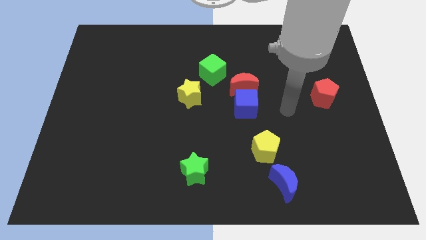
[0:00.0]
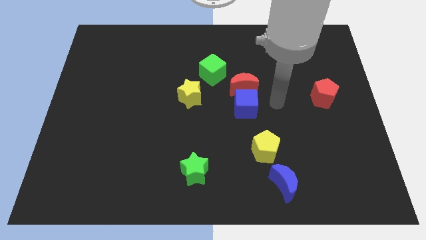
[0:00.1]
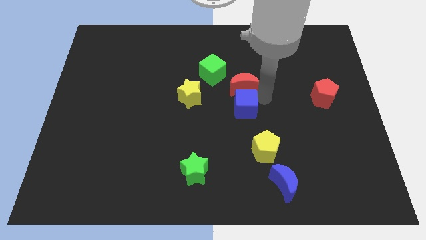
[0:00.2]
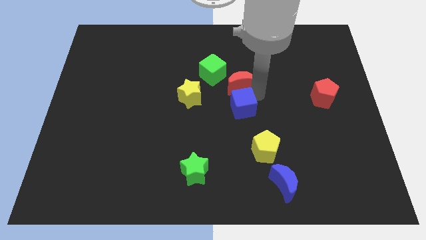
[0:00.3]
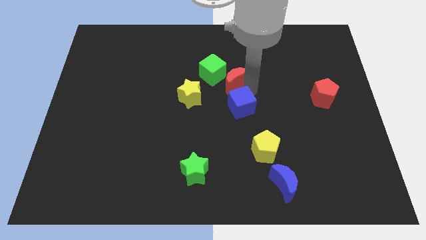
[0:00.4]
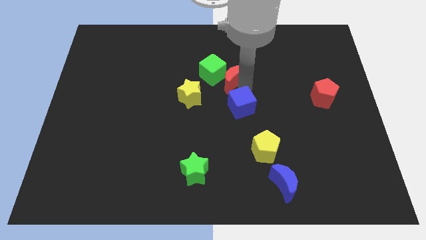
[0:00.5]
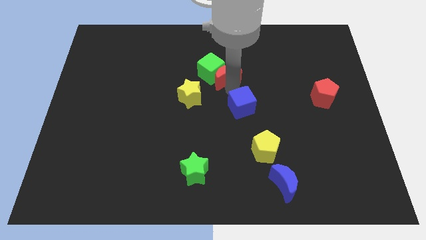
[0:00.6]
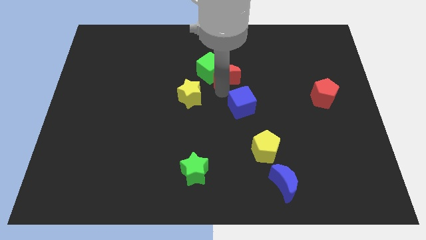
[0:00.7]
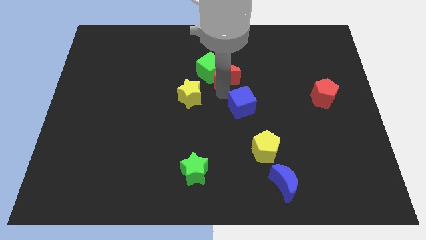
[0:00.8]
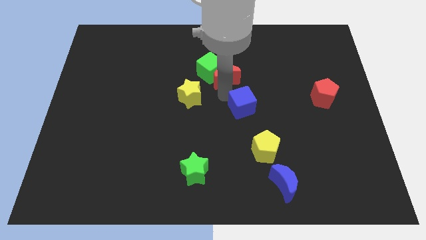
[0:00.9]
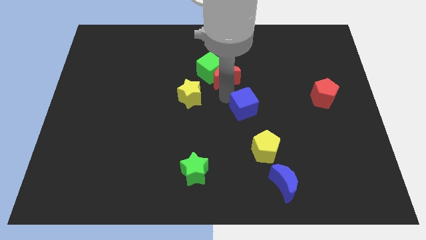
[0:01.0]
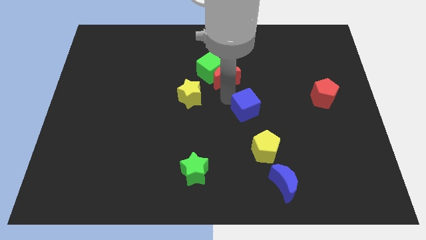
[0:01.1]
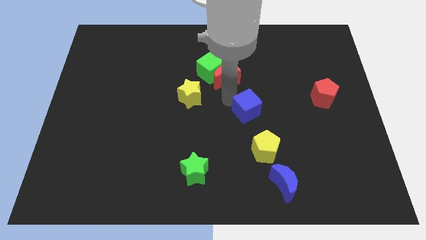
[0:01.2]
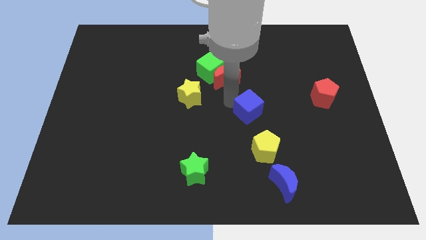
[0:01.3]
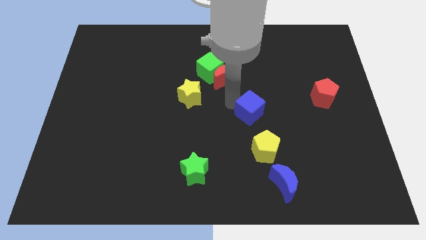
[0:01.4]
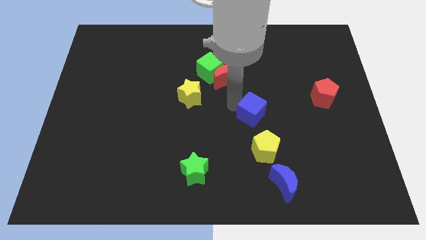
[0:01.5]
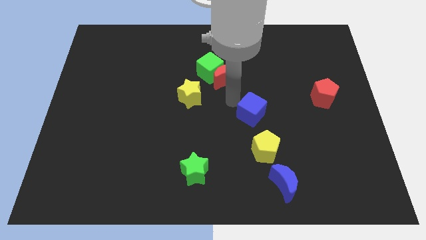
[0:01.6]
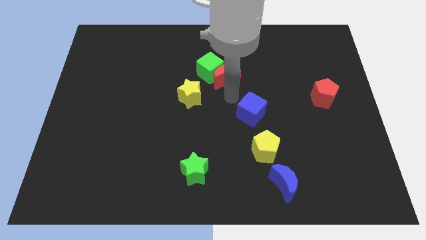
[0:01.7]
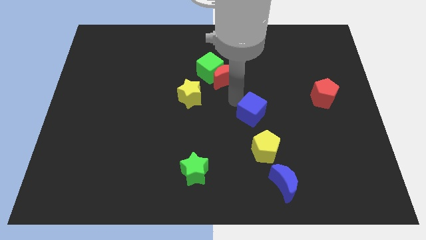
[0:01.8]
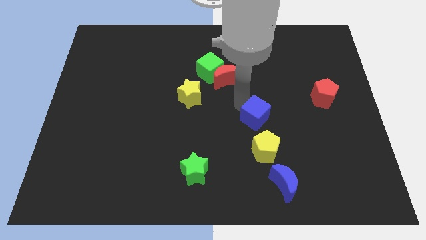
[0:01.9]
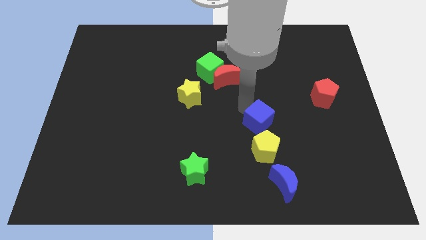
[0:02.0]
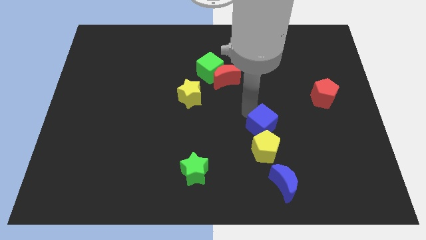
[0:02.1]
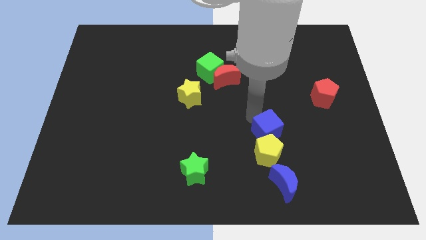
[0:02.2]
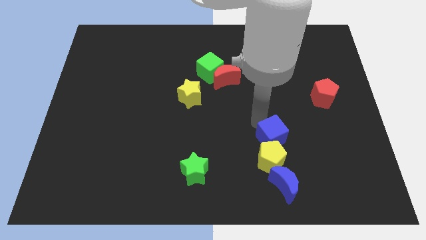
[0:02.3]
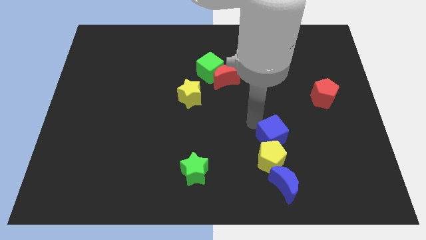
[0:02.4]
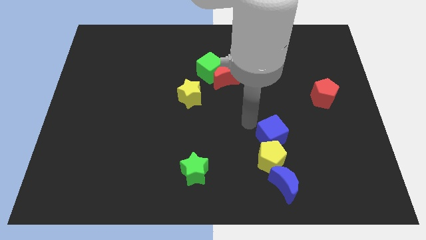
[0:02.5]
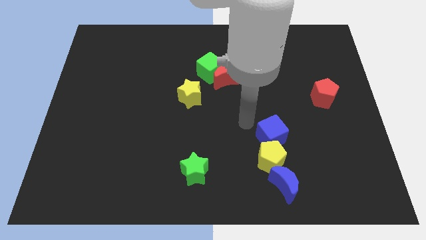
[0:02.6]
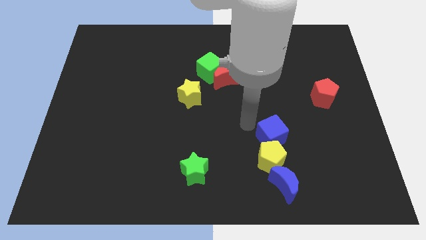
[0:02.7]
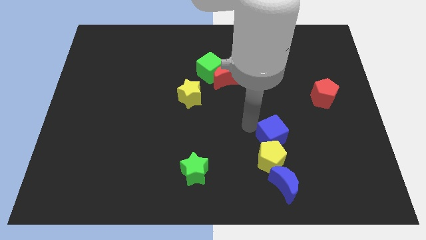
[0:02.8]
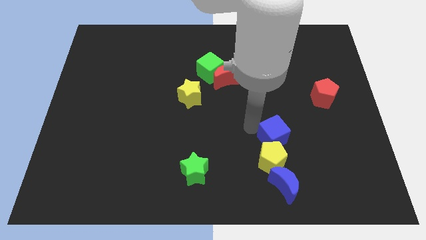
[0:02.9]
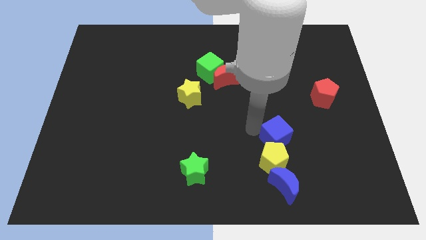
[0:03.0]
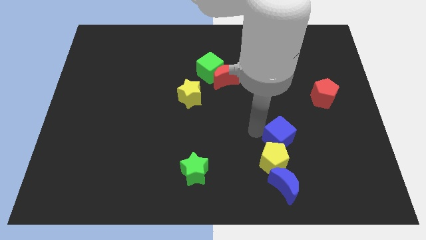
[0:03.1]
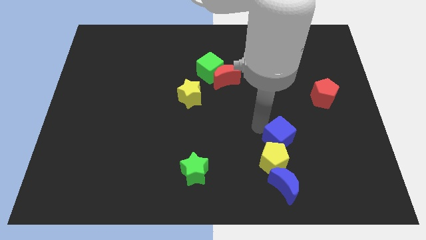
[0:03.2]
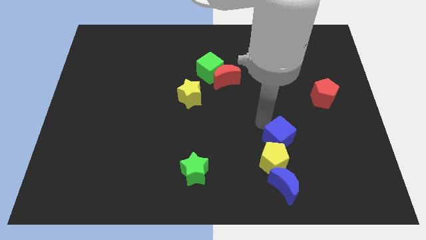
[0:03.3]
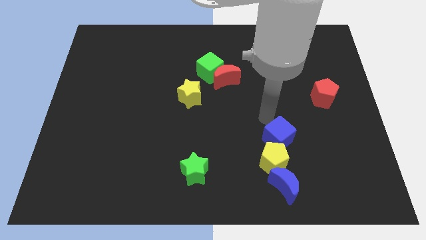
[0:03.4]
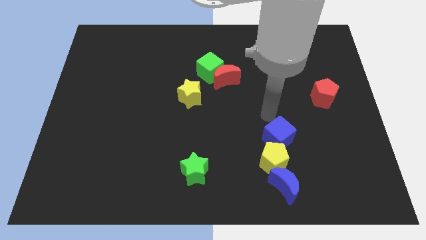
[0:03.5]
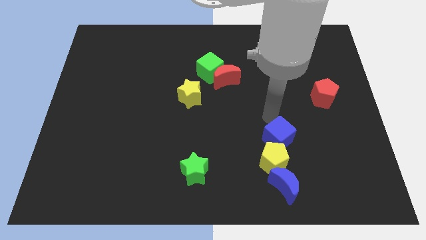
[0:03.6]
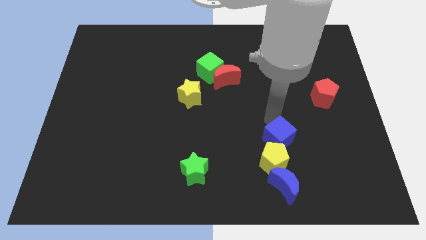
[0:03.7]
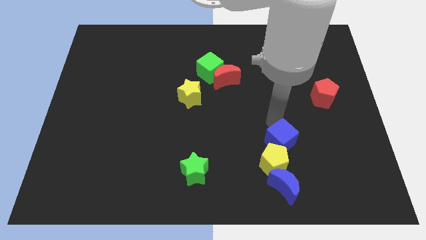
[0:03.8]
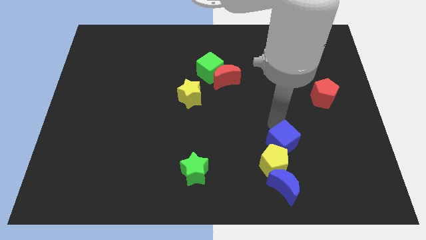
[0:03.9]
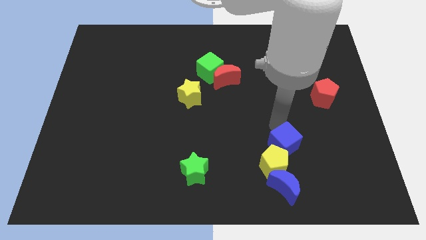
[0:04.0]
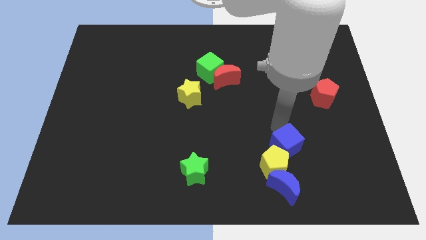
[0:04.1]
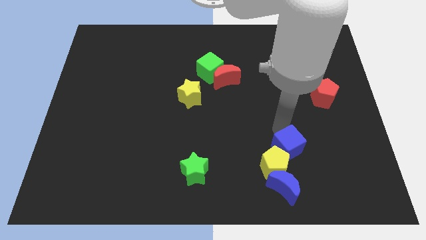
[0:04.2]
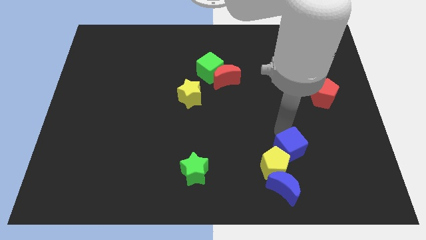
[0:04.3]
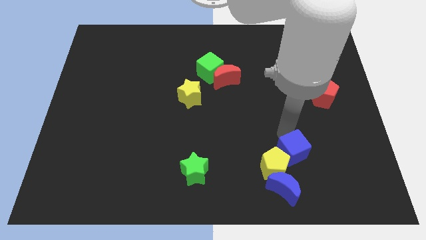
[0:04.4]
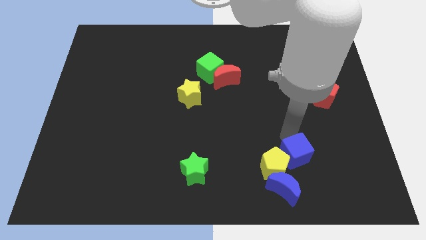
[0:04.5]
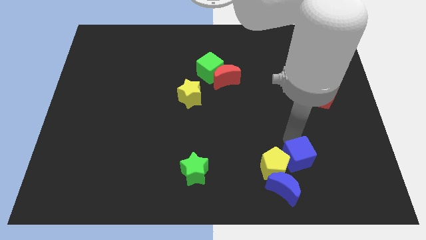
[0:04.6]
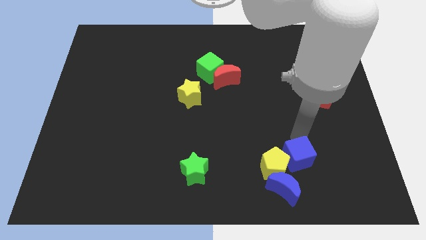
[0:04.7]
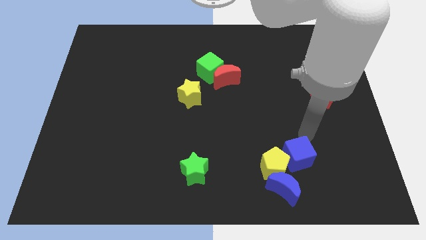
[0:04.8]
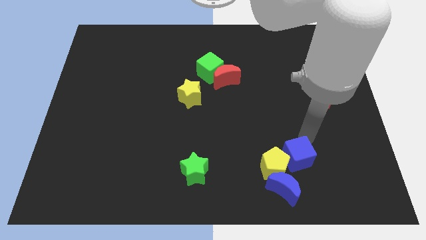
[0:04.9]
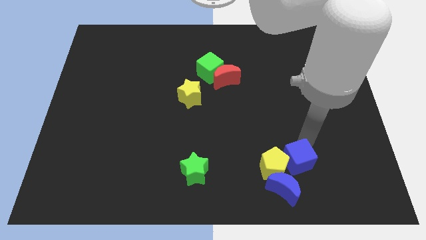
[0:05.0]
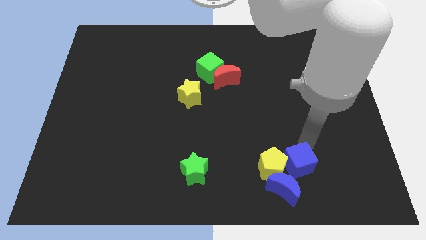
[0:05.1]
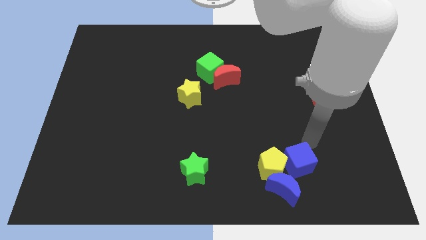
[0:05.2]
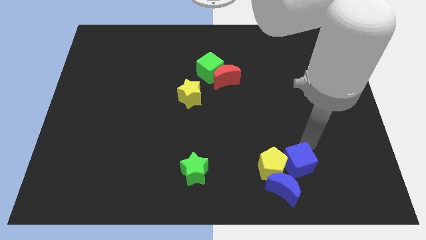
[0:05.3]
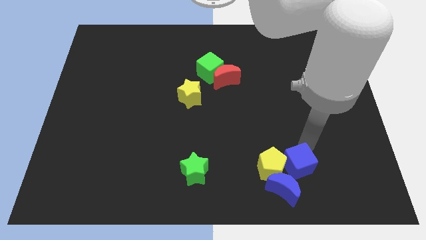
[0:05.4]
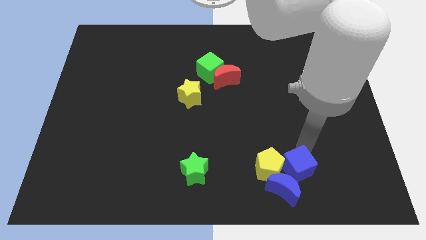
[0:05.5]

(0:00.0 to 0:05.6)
push the blue cube to the blue moon

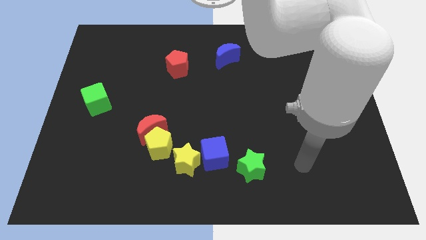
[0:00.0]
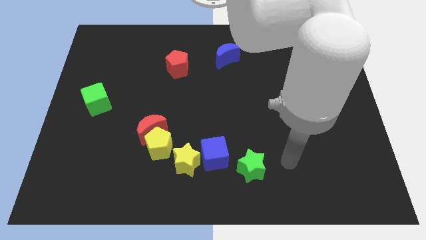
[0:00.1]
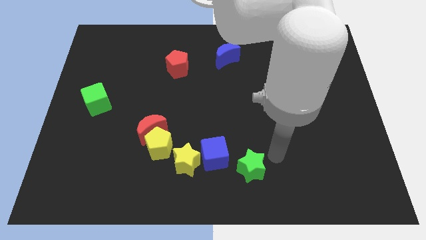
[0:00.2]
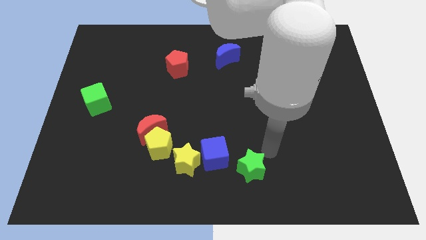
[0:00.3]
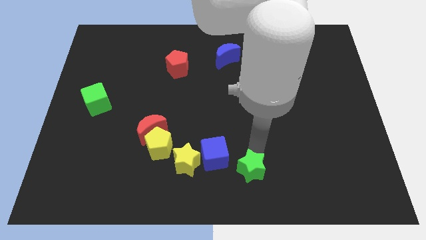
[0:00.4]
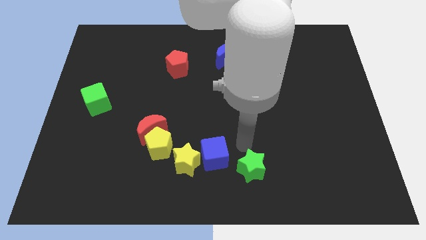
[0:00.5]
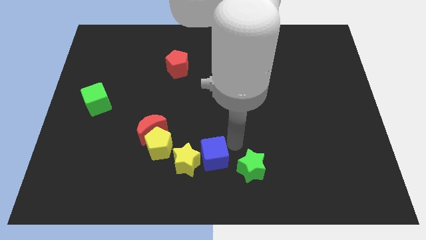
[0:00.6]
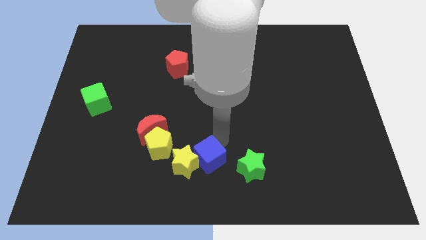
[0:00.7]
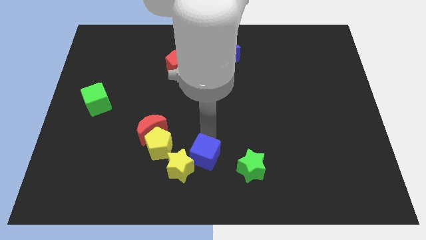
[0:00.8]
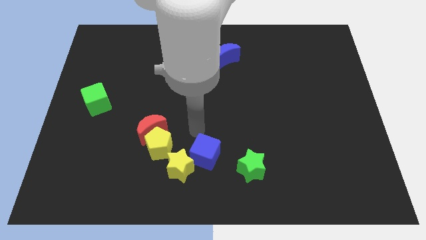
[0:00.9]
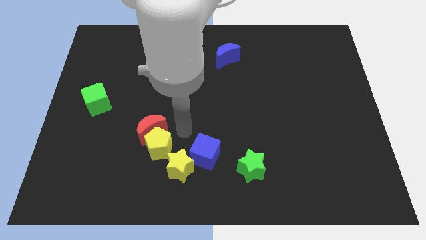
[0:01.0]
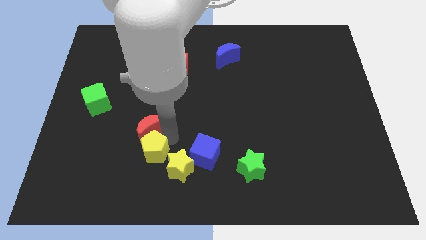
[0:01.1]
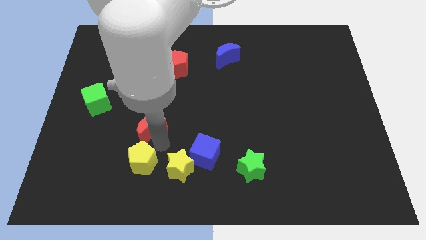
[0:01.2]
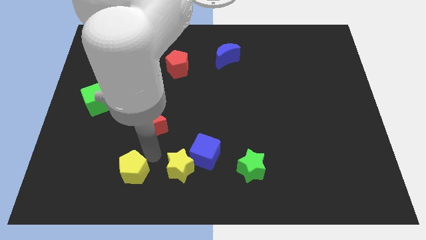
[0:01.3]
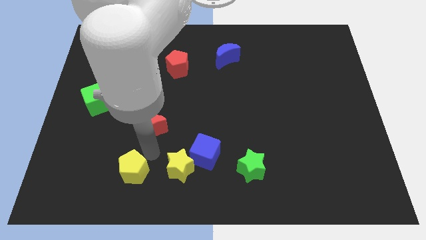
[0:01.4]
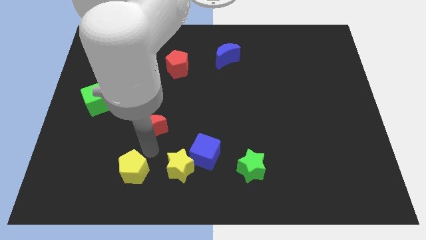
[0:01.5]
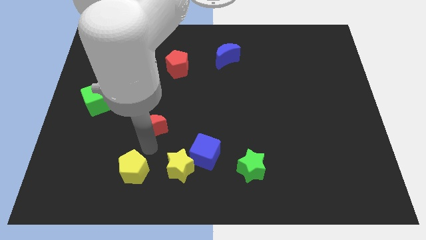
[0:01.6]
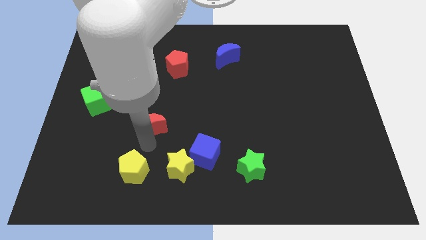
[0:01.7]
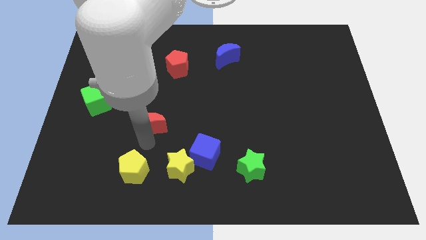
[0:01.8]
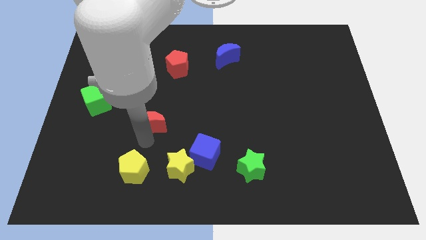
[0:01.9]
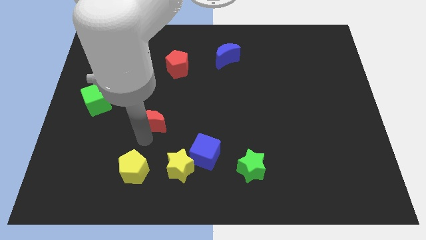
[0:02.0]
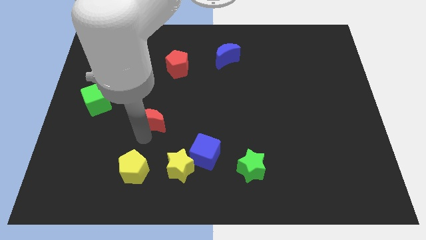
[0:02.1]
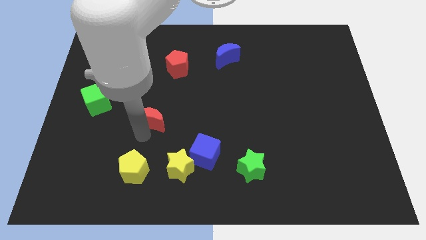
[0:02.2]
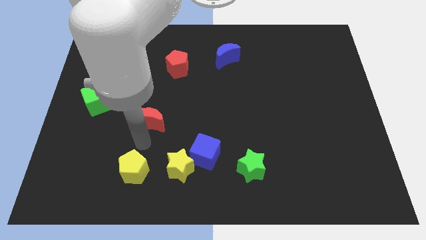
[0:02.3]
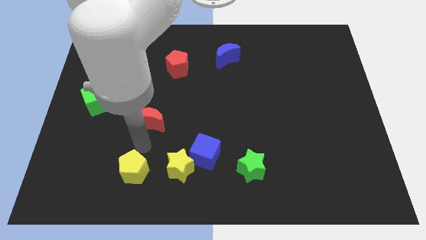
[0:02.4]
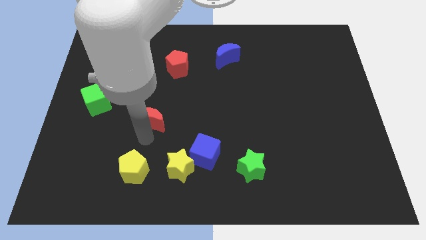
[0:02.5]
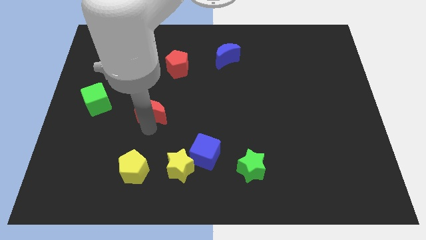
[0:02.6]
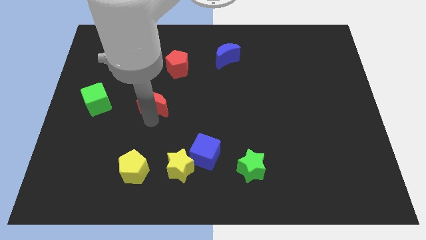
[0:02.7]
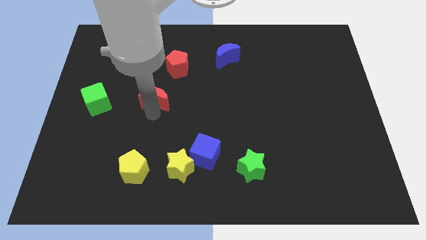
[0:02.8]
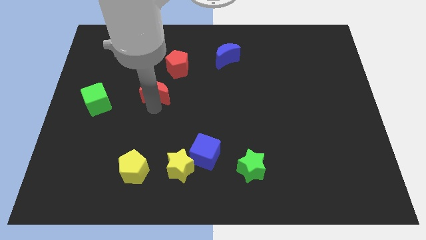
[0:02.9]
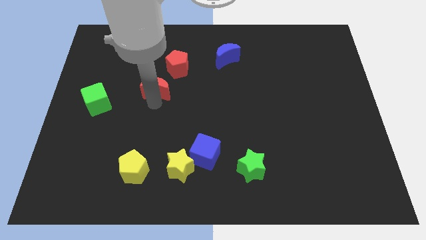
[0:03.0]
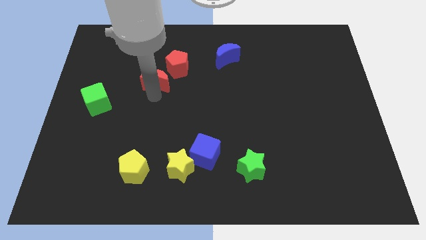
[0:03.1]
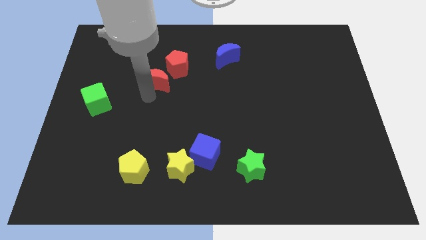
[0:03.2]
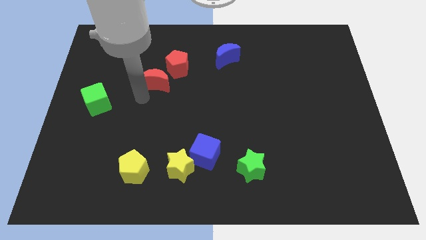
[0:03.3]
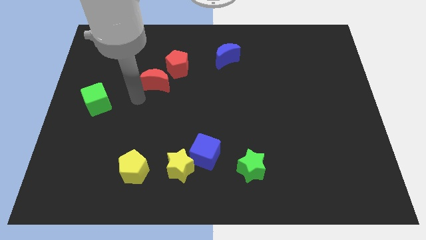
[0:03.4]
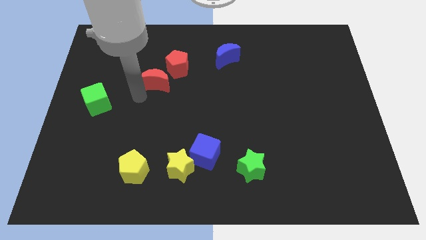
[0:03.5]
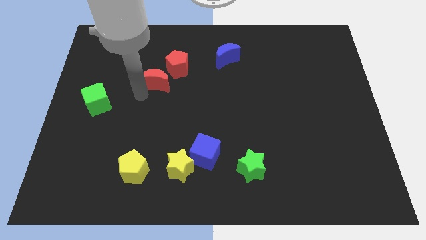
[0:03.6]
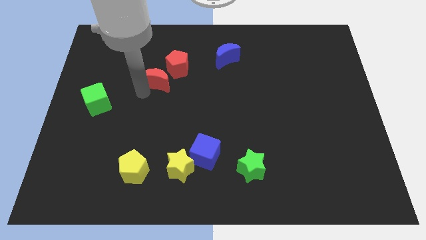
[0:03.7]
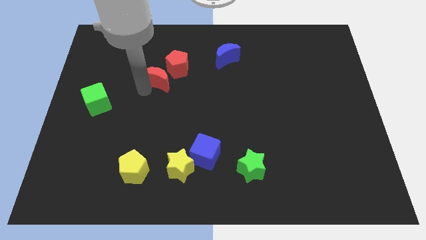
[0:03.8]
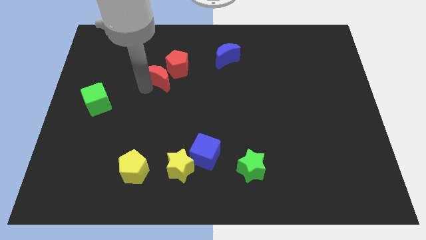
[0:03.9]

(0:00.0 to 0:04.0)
move the red moon next to the red pentagon
